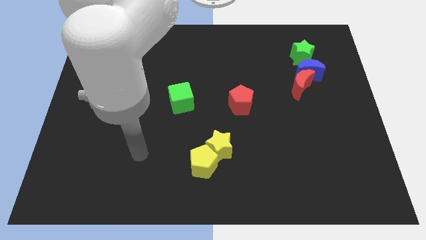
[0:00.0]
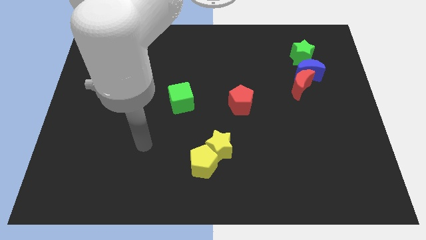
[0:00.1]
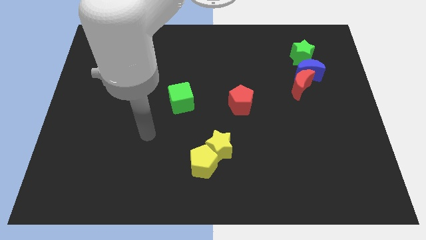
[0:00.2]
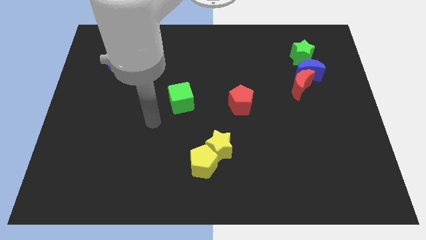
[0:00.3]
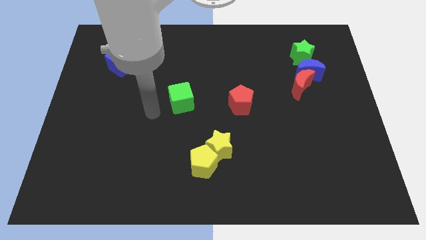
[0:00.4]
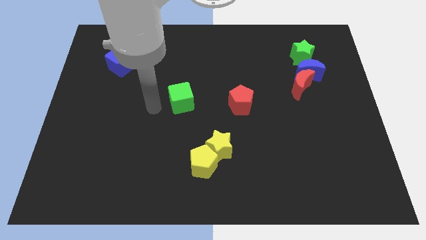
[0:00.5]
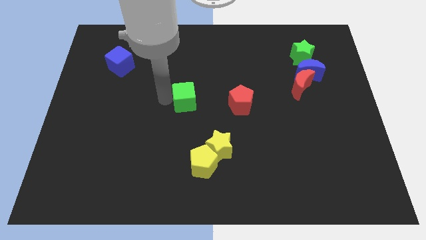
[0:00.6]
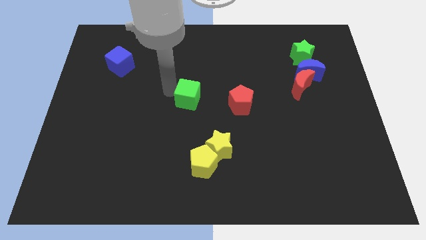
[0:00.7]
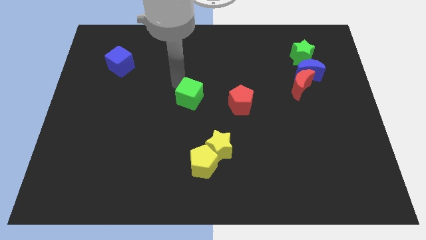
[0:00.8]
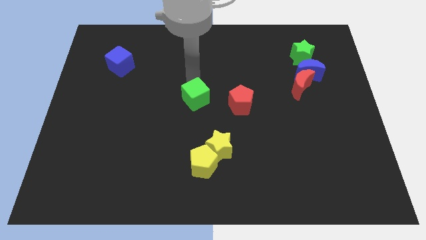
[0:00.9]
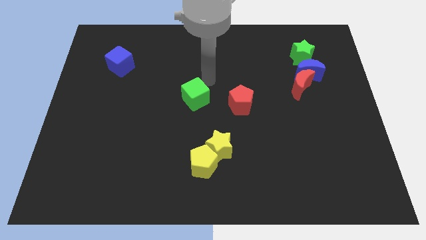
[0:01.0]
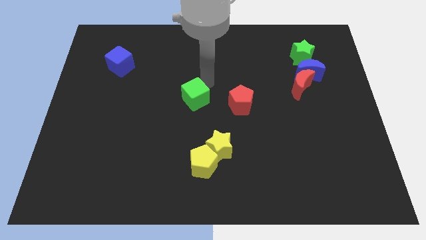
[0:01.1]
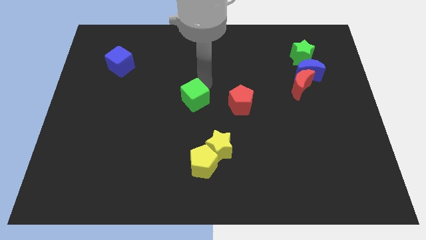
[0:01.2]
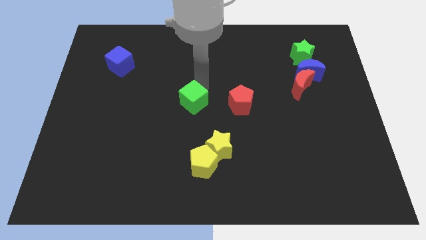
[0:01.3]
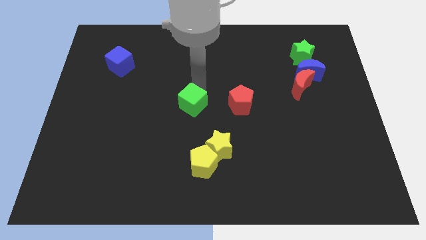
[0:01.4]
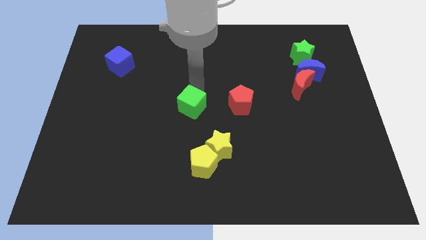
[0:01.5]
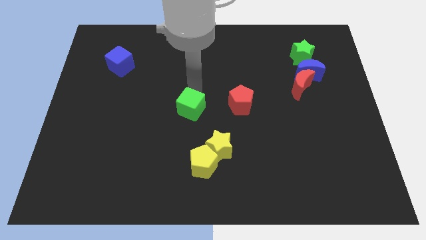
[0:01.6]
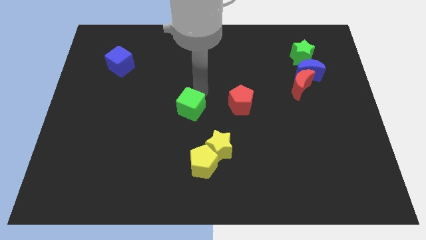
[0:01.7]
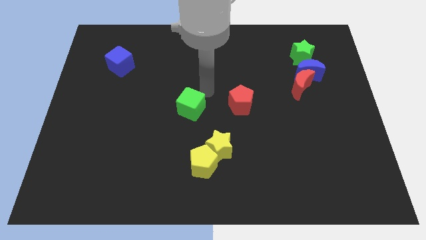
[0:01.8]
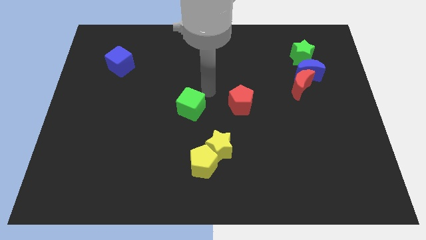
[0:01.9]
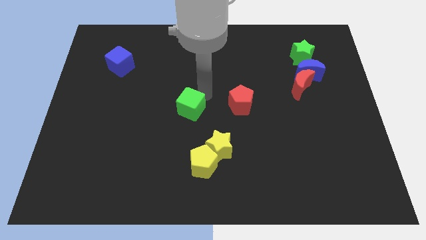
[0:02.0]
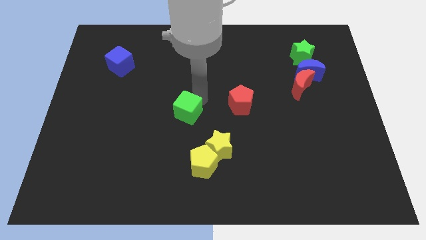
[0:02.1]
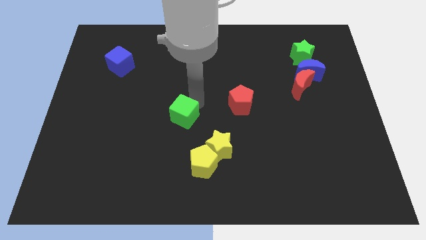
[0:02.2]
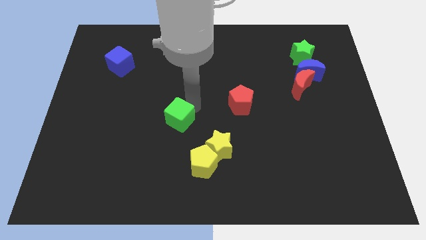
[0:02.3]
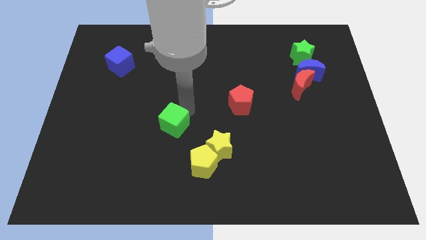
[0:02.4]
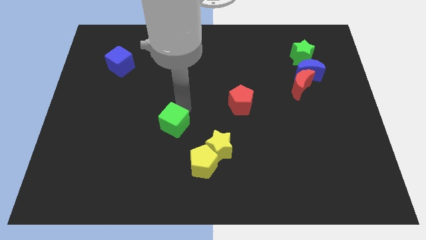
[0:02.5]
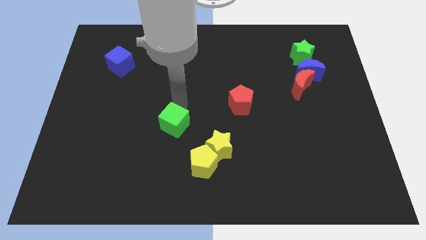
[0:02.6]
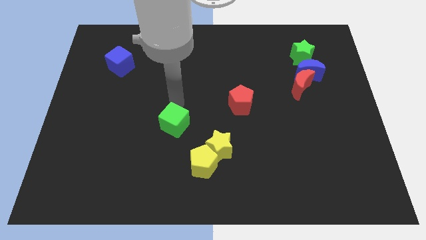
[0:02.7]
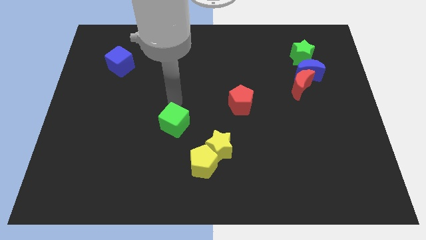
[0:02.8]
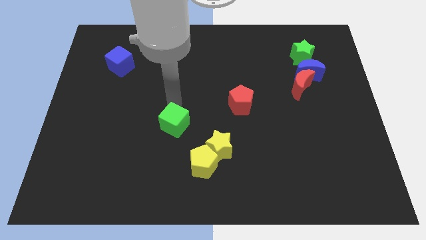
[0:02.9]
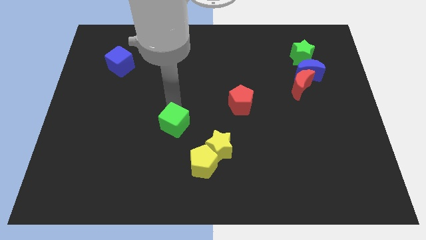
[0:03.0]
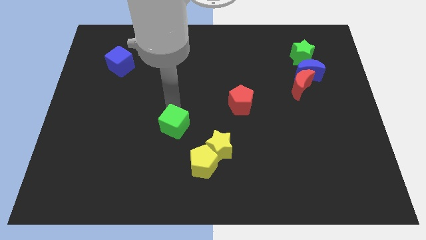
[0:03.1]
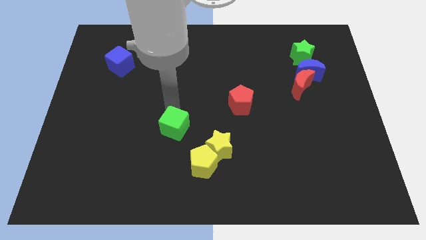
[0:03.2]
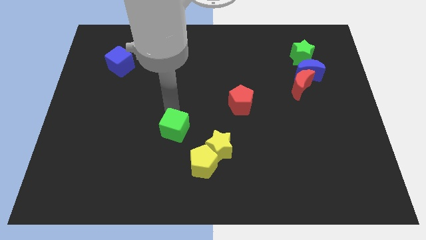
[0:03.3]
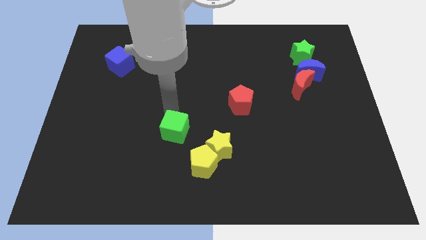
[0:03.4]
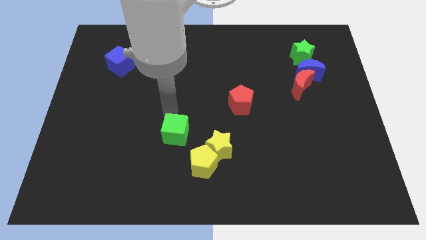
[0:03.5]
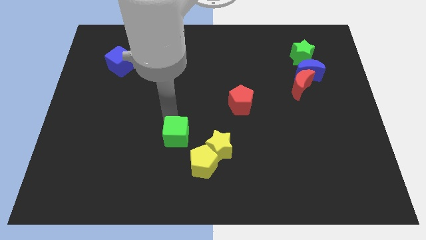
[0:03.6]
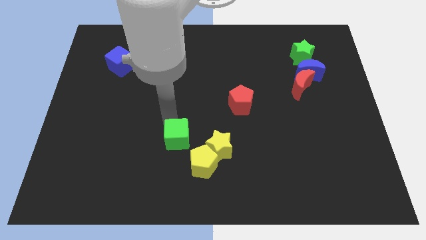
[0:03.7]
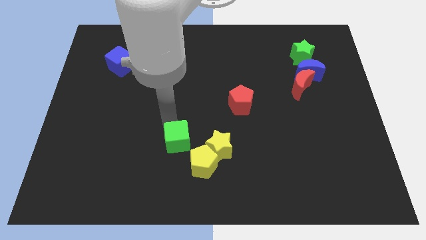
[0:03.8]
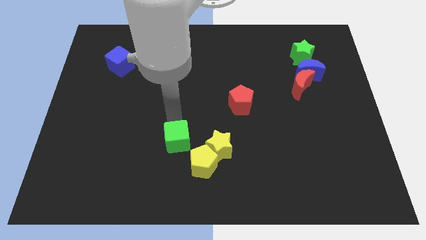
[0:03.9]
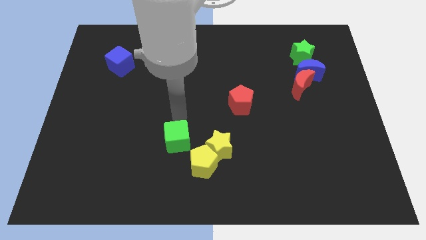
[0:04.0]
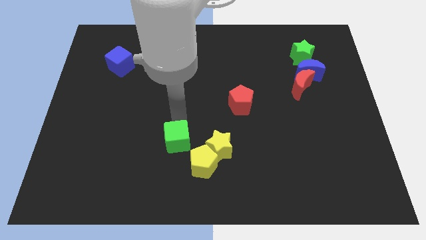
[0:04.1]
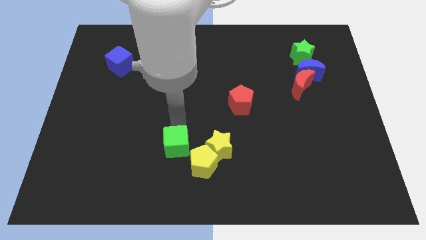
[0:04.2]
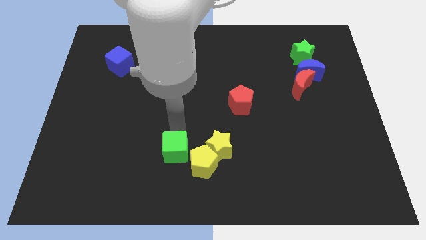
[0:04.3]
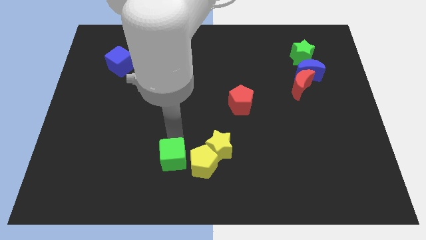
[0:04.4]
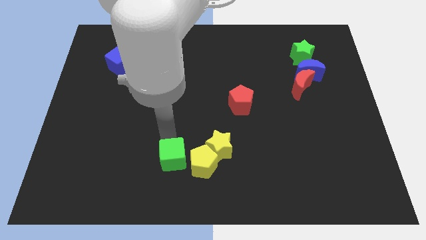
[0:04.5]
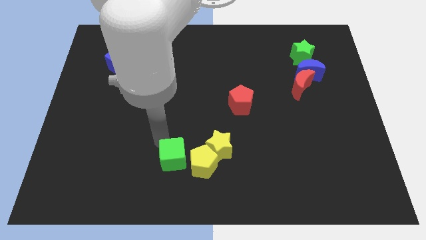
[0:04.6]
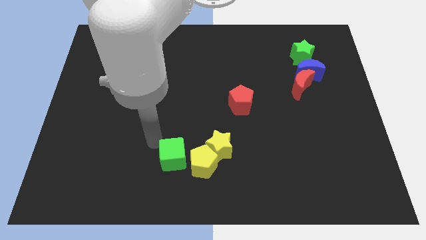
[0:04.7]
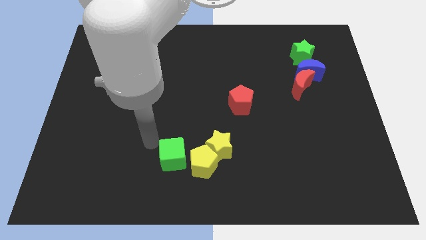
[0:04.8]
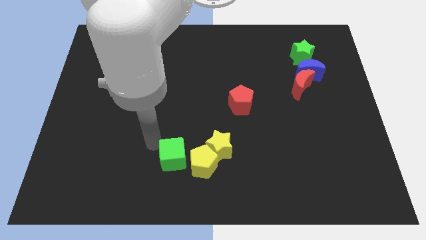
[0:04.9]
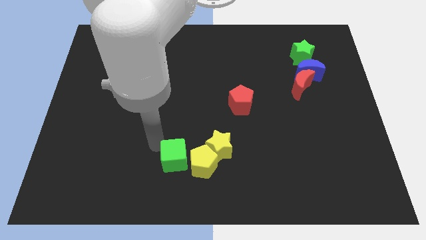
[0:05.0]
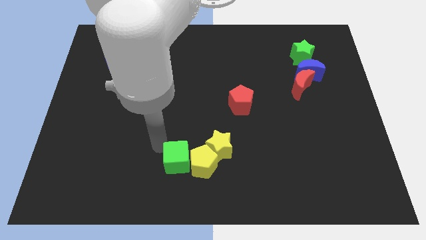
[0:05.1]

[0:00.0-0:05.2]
put the green cube diagonally down and to the left of the yellow star

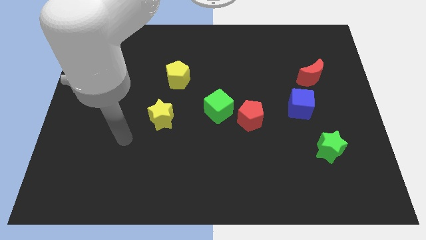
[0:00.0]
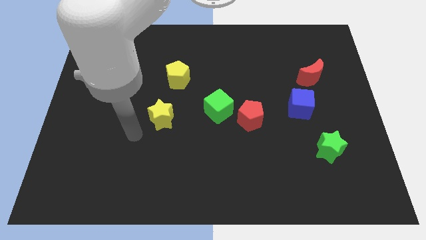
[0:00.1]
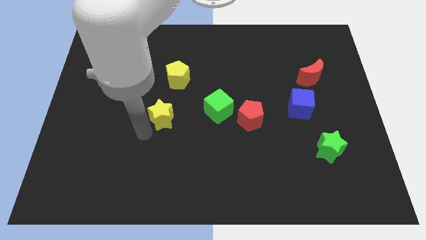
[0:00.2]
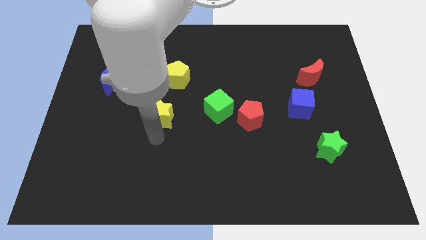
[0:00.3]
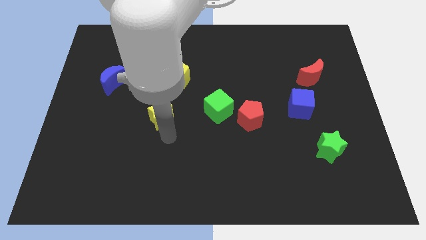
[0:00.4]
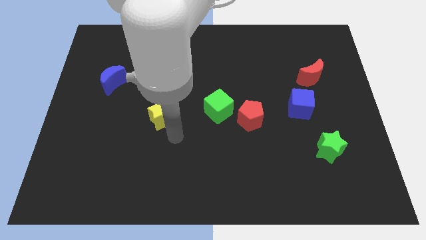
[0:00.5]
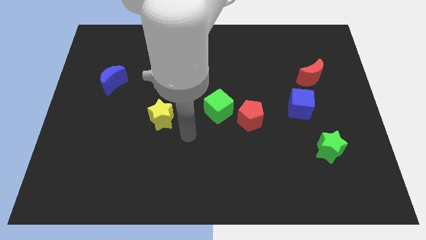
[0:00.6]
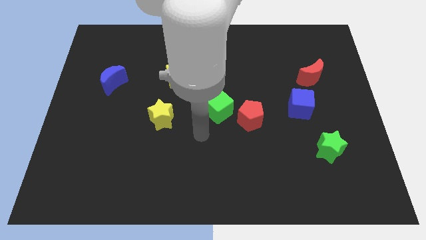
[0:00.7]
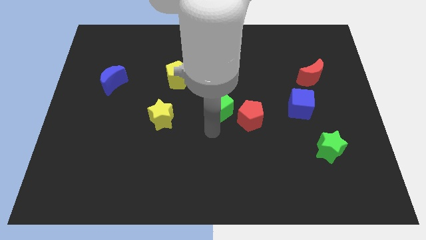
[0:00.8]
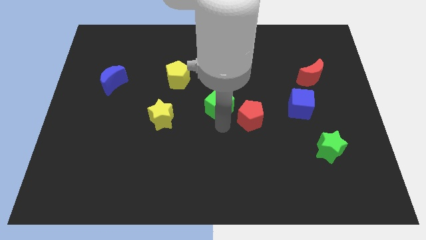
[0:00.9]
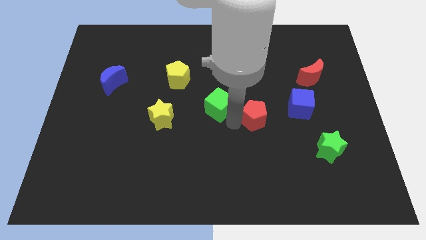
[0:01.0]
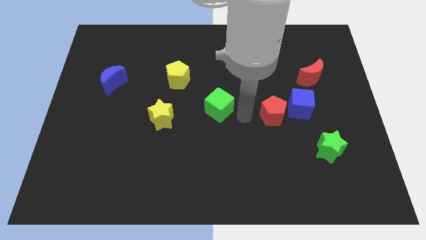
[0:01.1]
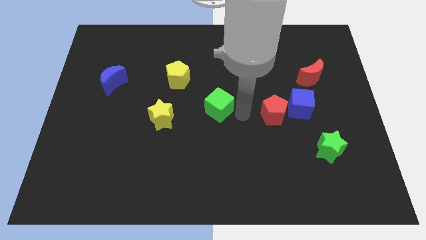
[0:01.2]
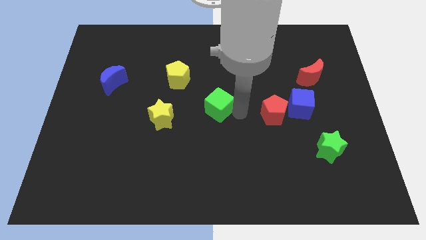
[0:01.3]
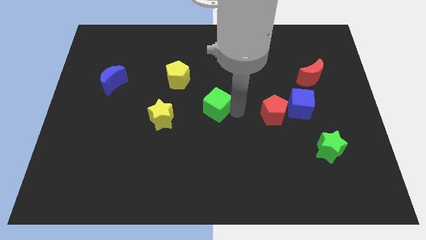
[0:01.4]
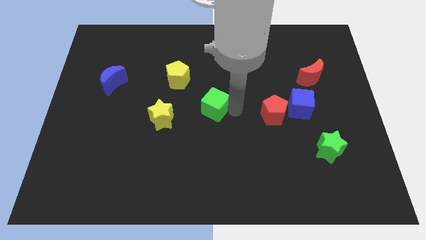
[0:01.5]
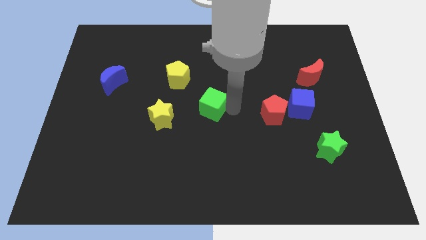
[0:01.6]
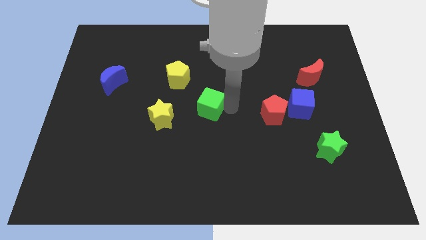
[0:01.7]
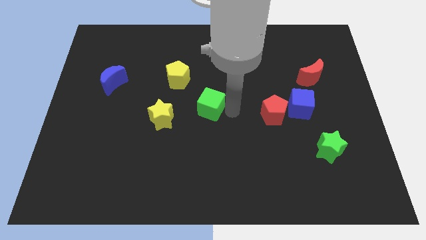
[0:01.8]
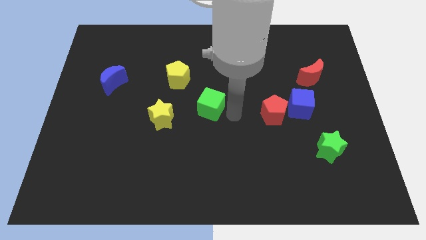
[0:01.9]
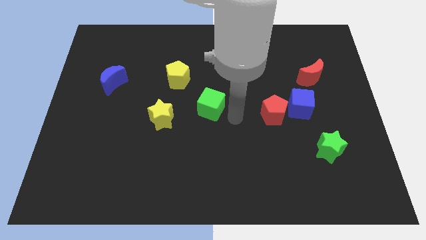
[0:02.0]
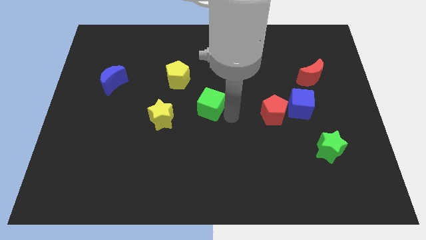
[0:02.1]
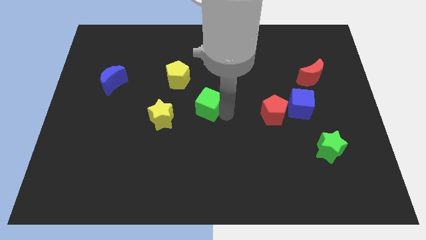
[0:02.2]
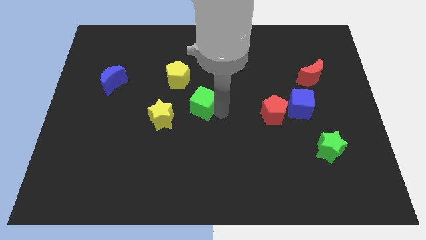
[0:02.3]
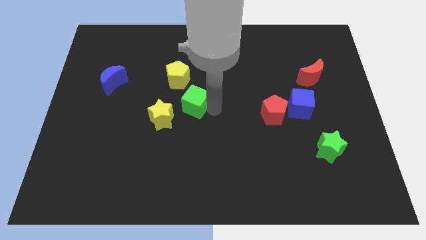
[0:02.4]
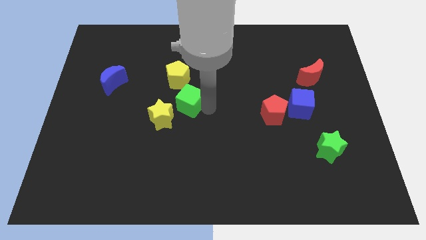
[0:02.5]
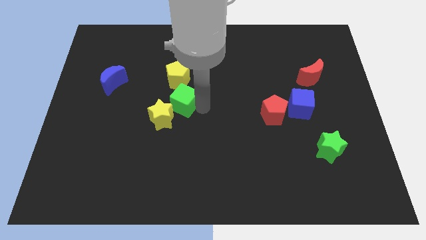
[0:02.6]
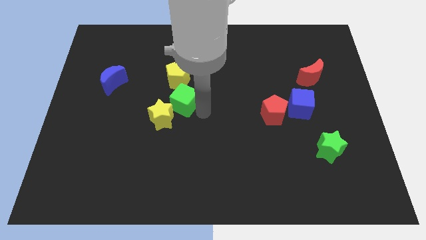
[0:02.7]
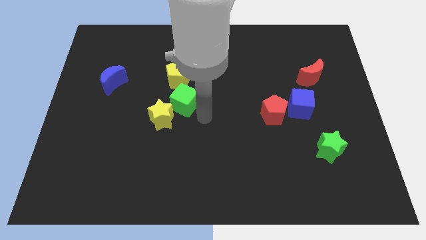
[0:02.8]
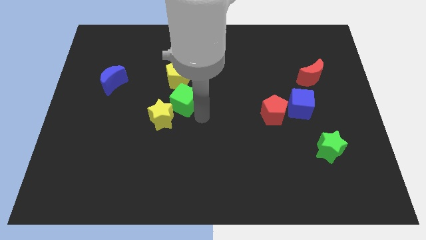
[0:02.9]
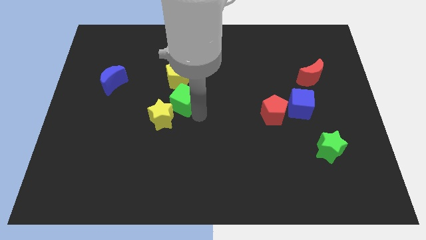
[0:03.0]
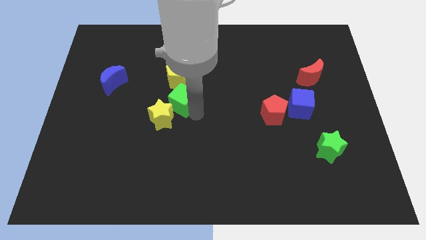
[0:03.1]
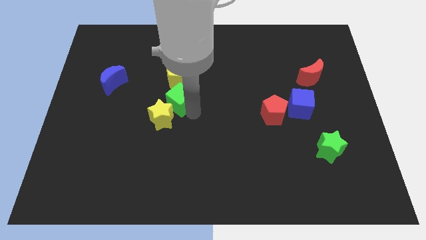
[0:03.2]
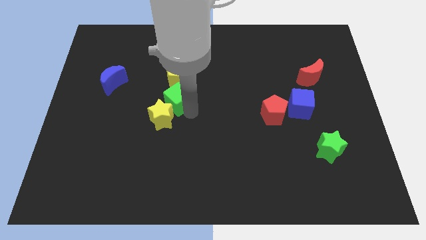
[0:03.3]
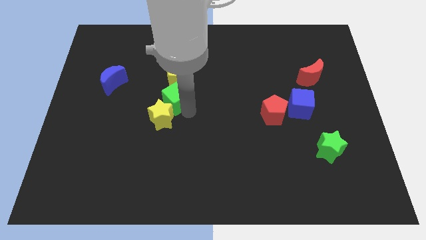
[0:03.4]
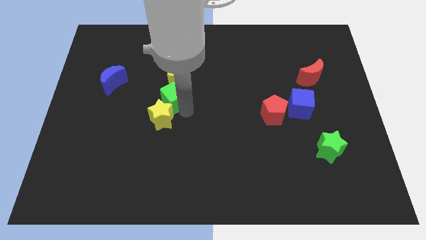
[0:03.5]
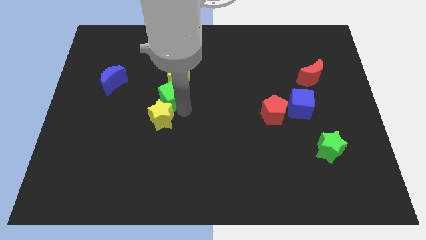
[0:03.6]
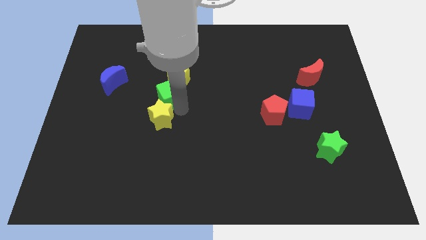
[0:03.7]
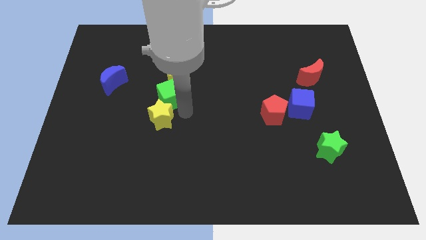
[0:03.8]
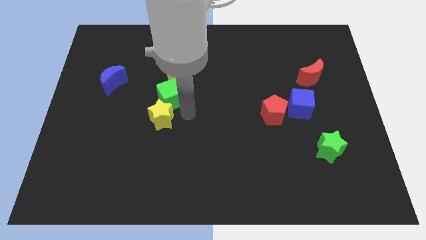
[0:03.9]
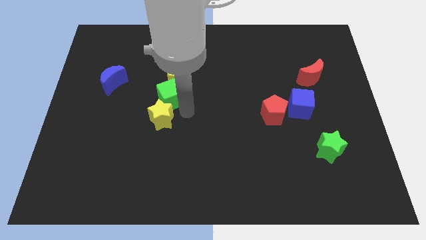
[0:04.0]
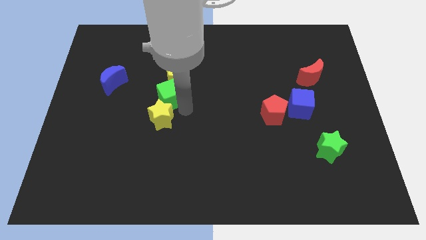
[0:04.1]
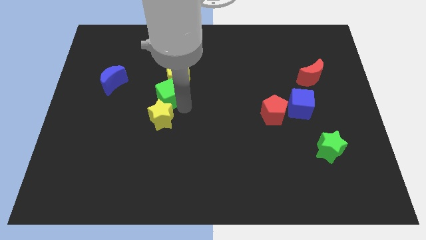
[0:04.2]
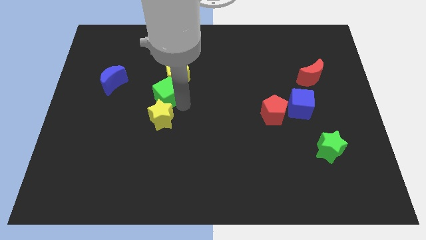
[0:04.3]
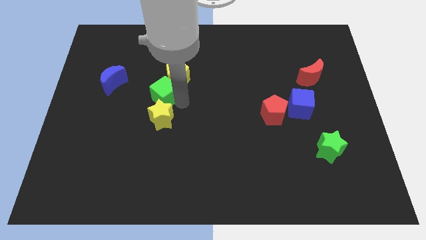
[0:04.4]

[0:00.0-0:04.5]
push the green cube just right of the blue moon
